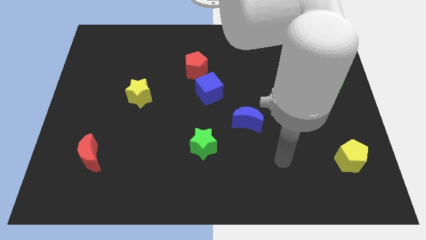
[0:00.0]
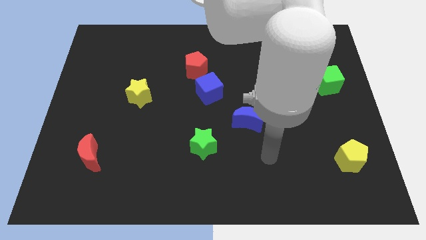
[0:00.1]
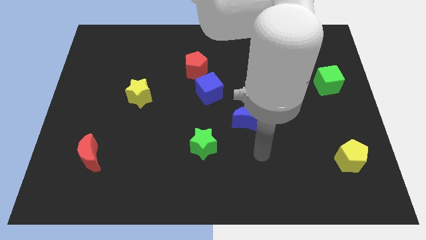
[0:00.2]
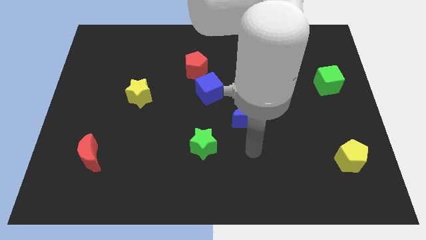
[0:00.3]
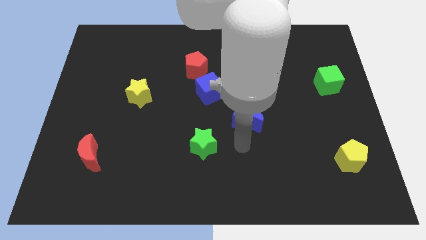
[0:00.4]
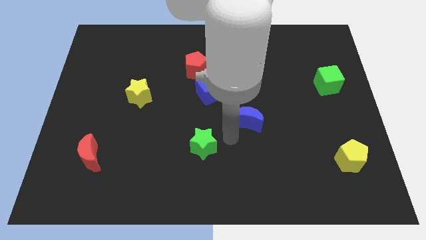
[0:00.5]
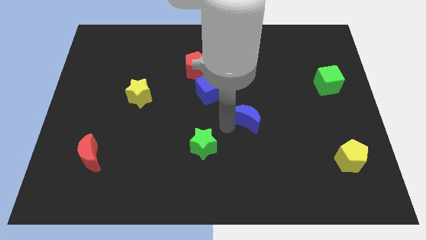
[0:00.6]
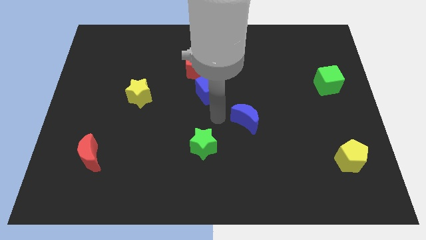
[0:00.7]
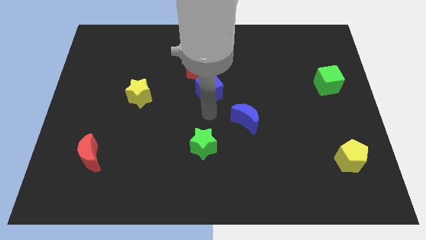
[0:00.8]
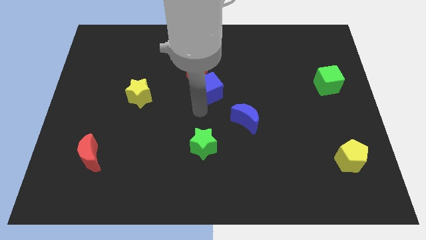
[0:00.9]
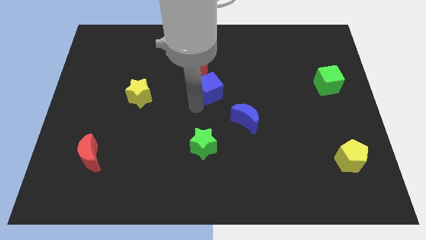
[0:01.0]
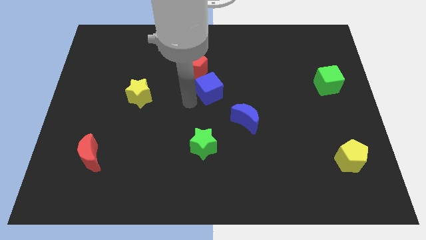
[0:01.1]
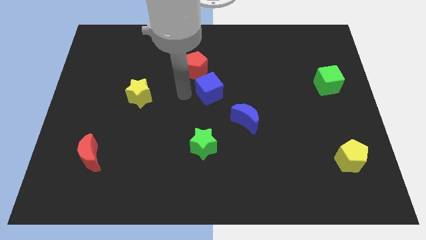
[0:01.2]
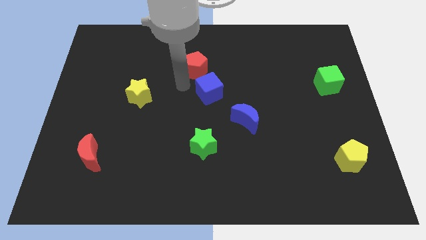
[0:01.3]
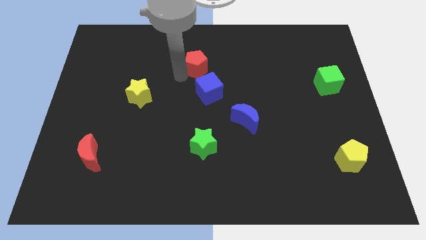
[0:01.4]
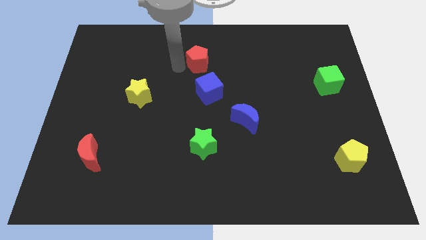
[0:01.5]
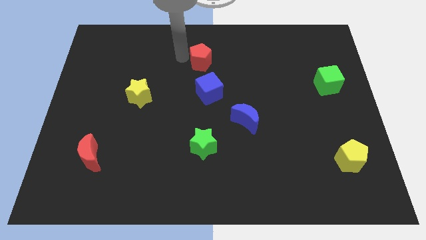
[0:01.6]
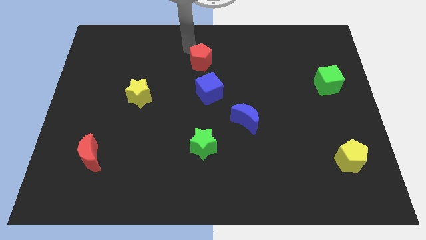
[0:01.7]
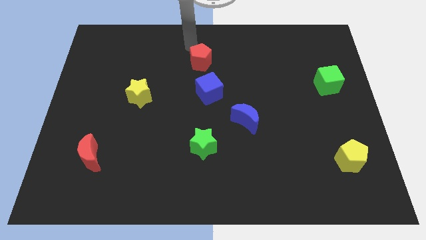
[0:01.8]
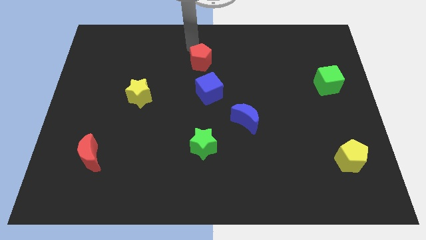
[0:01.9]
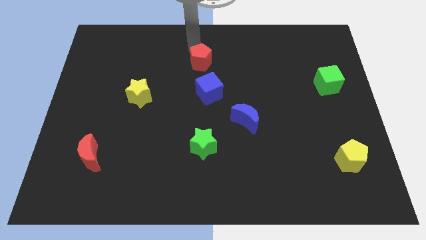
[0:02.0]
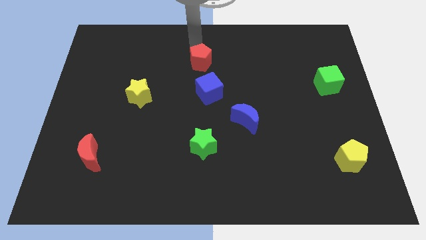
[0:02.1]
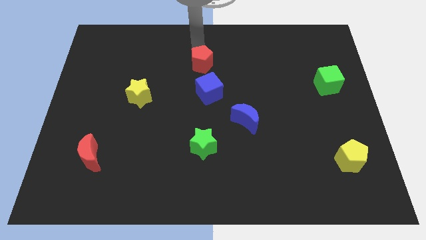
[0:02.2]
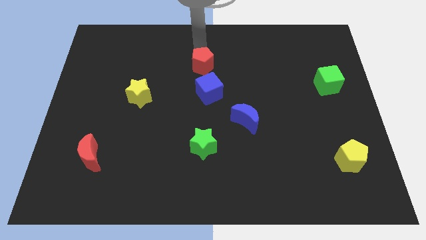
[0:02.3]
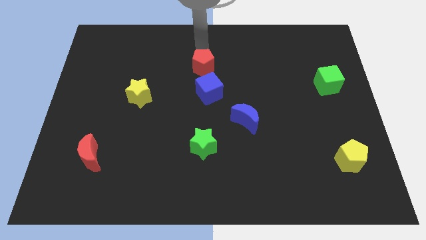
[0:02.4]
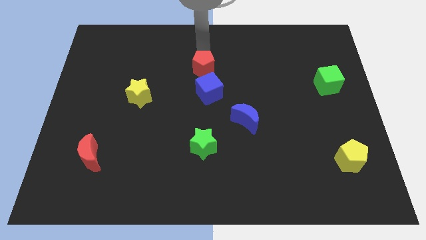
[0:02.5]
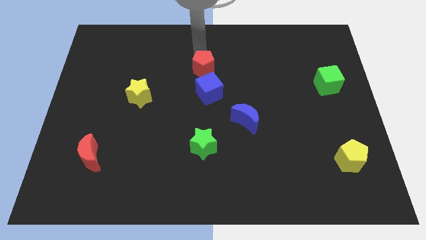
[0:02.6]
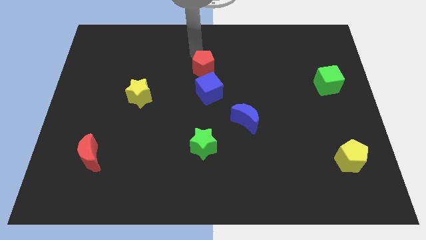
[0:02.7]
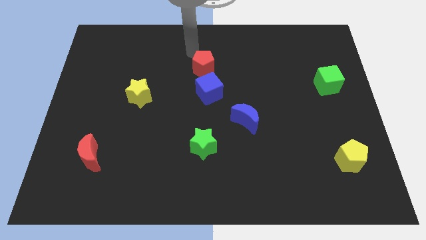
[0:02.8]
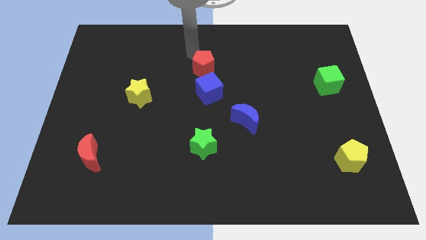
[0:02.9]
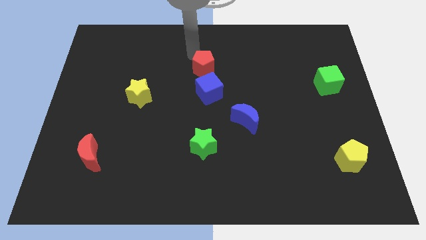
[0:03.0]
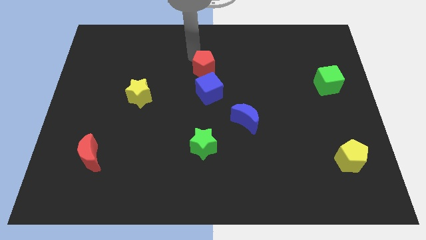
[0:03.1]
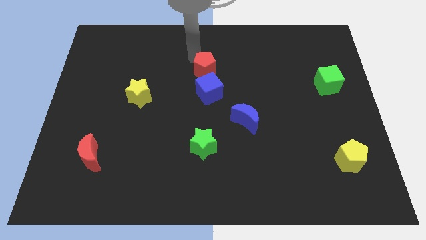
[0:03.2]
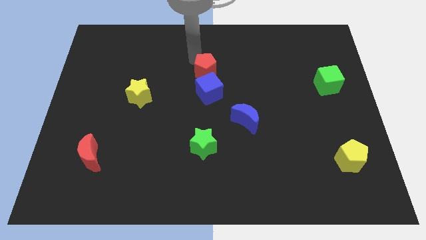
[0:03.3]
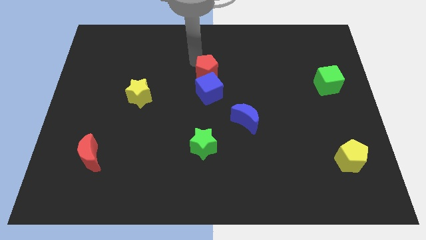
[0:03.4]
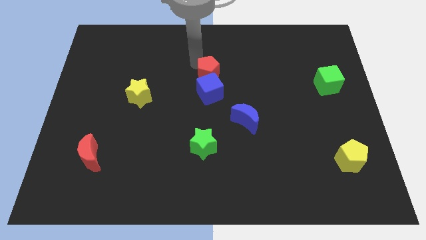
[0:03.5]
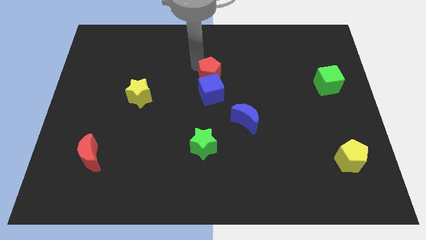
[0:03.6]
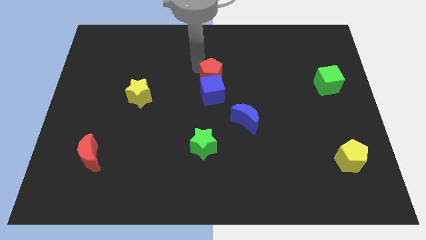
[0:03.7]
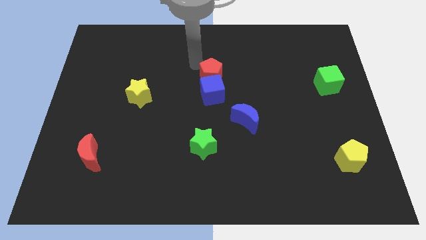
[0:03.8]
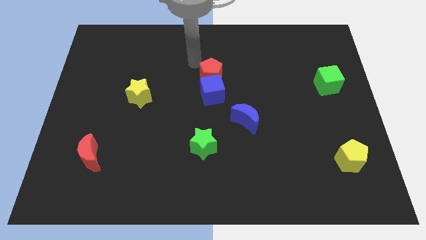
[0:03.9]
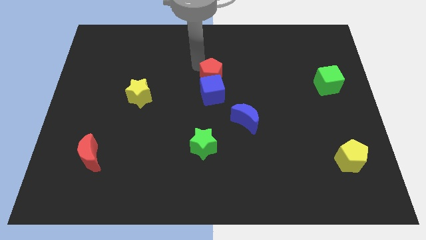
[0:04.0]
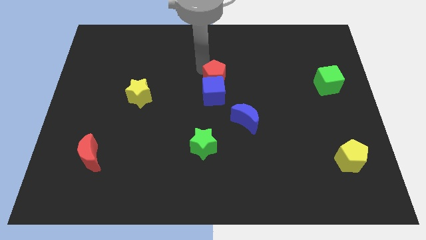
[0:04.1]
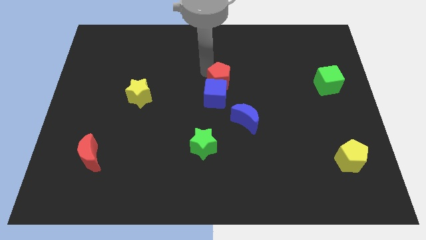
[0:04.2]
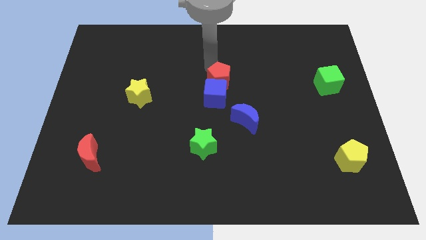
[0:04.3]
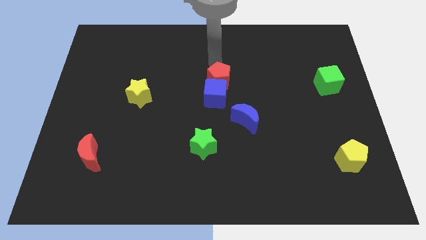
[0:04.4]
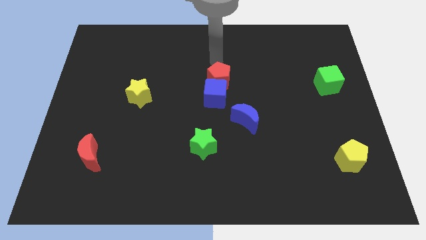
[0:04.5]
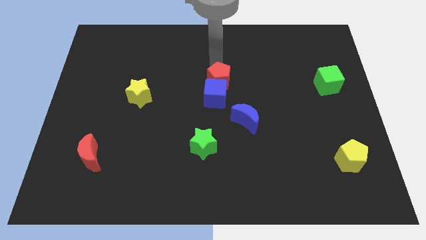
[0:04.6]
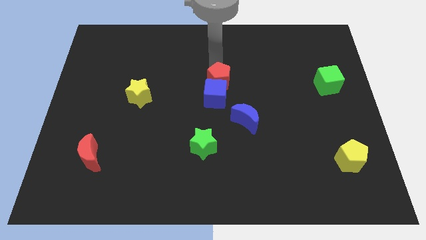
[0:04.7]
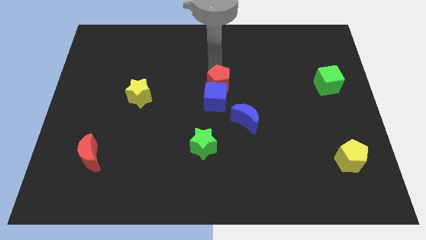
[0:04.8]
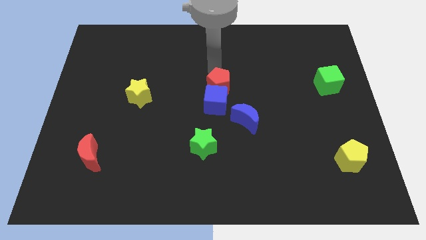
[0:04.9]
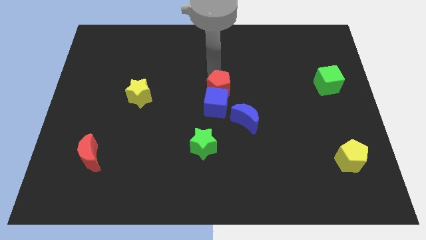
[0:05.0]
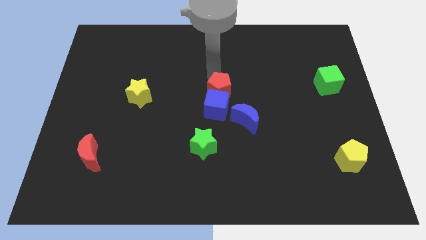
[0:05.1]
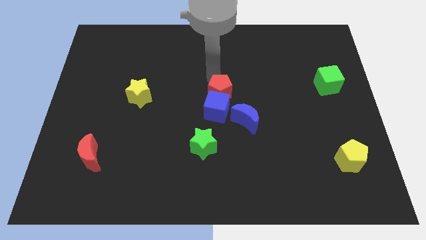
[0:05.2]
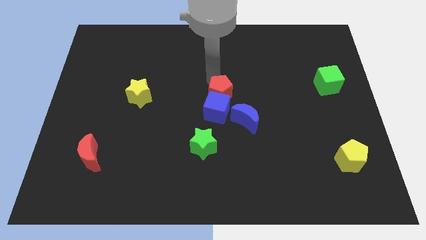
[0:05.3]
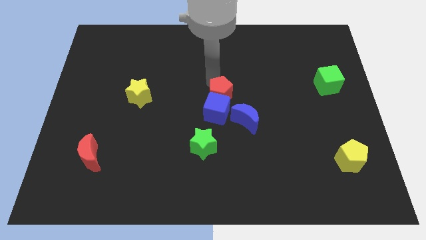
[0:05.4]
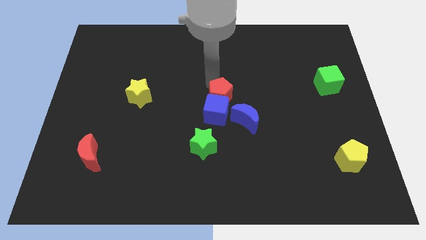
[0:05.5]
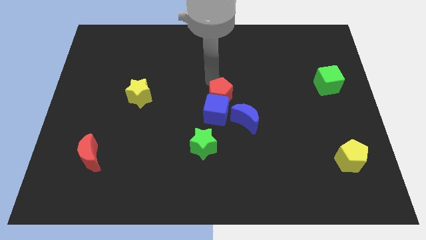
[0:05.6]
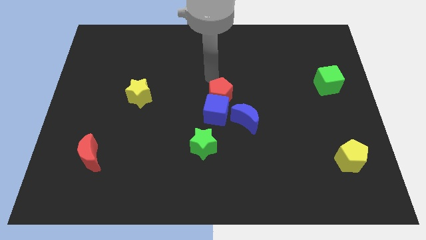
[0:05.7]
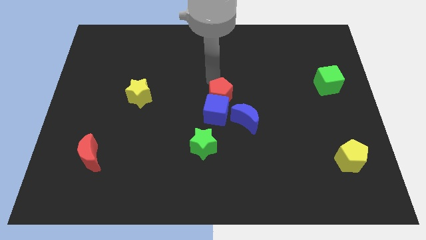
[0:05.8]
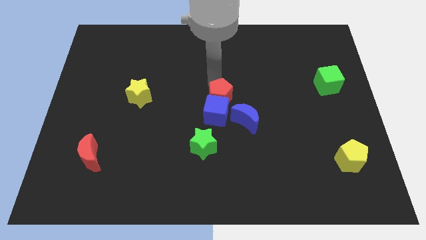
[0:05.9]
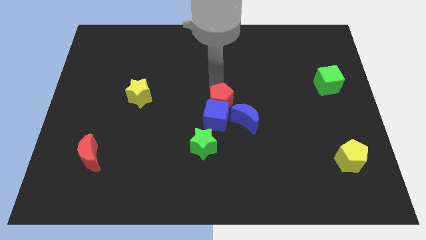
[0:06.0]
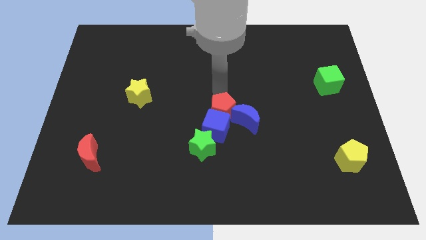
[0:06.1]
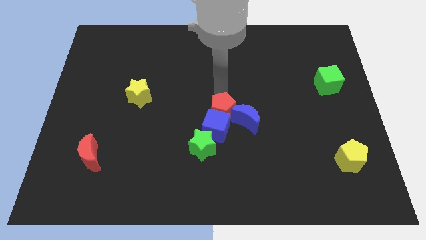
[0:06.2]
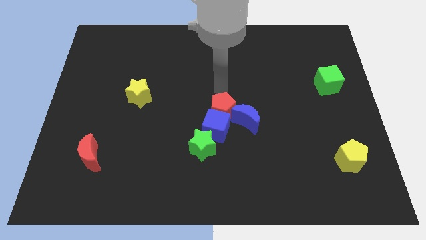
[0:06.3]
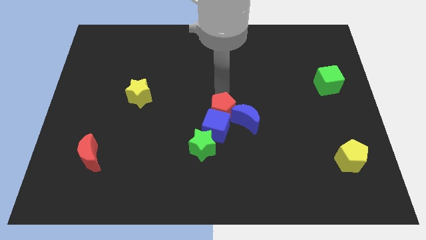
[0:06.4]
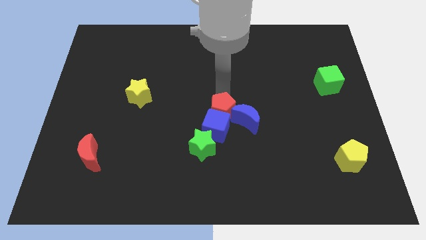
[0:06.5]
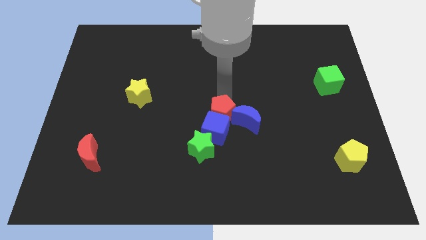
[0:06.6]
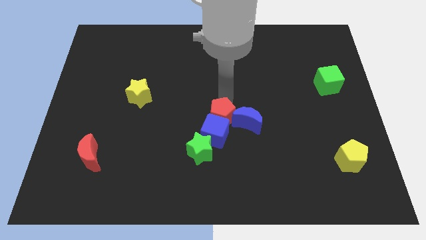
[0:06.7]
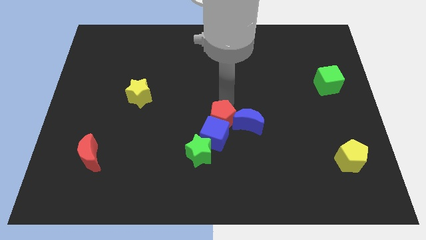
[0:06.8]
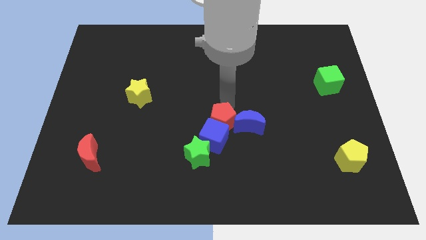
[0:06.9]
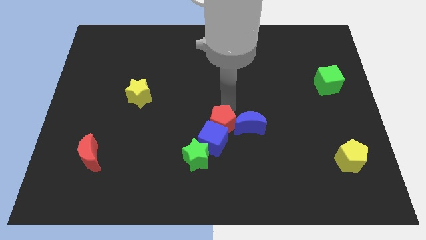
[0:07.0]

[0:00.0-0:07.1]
put the red pentagon to the bottom left of the blue moon

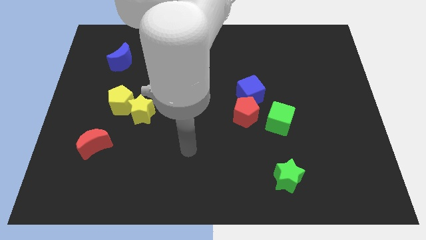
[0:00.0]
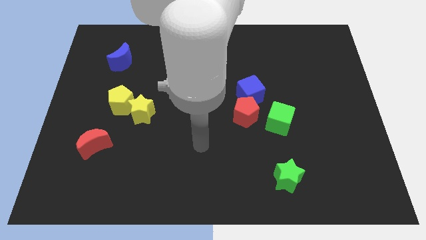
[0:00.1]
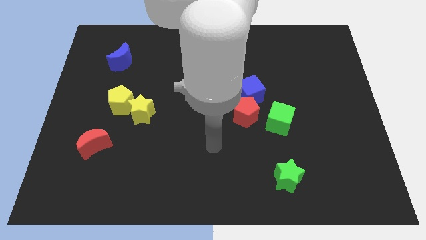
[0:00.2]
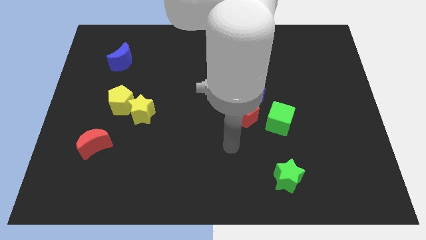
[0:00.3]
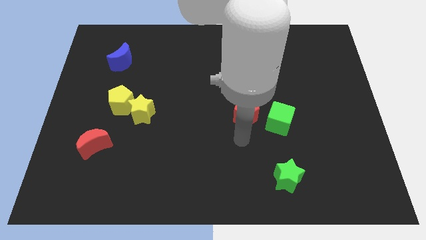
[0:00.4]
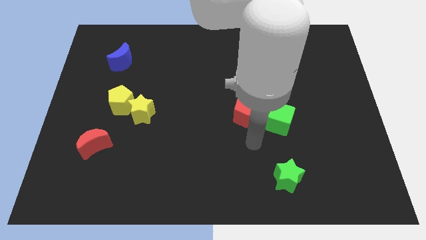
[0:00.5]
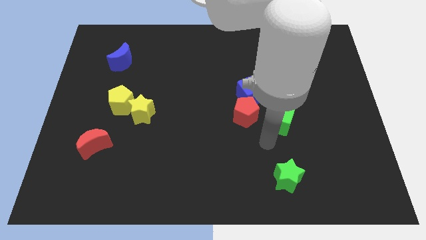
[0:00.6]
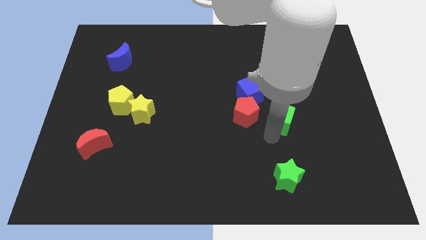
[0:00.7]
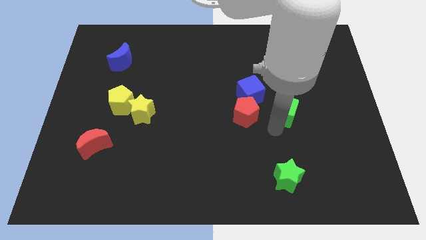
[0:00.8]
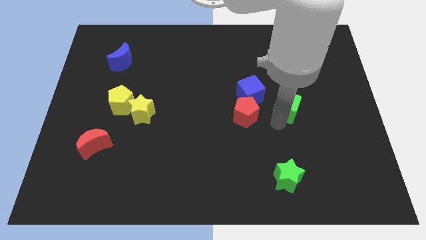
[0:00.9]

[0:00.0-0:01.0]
push the green cube just right of the blue cube
